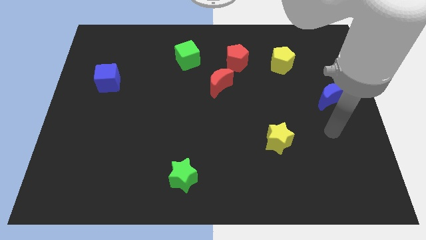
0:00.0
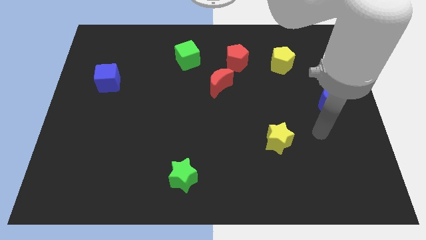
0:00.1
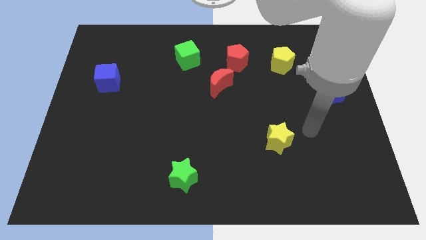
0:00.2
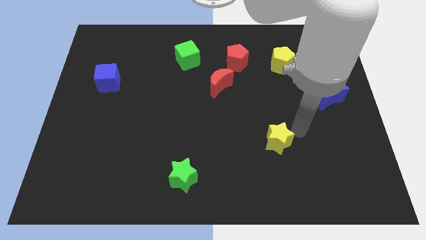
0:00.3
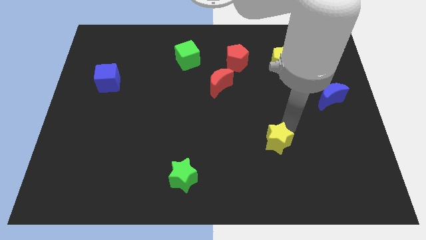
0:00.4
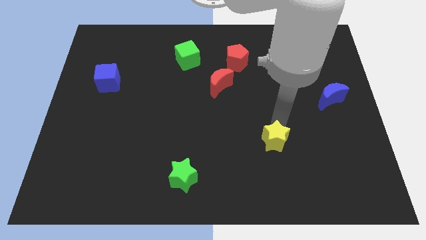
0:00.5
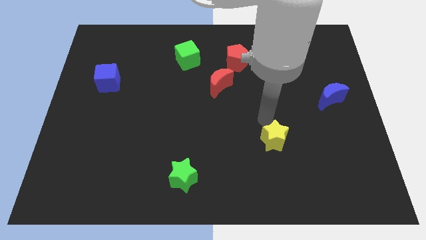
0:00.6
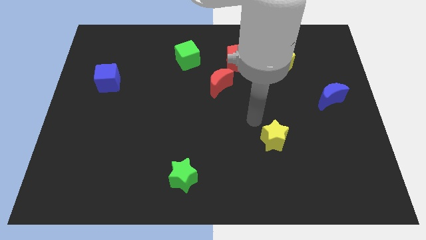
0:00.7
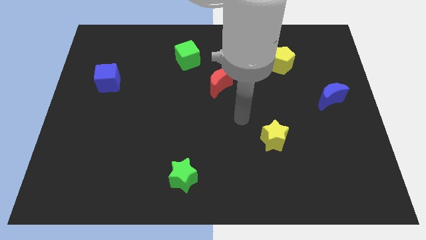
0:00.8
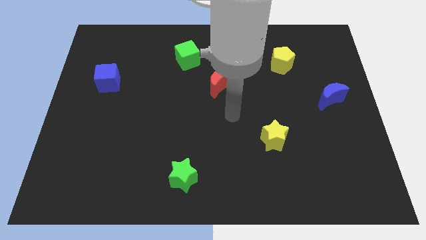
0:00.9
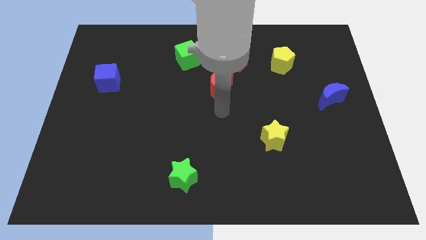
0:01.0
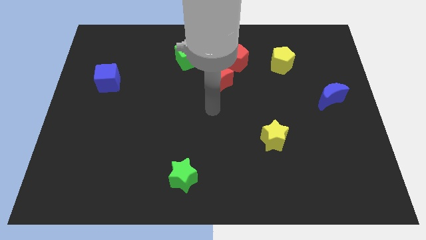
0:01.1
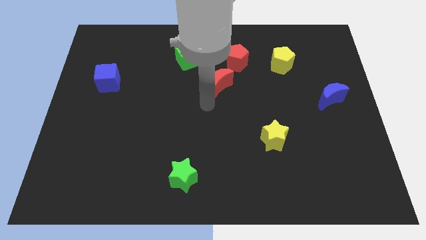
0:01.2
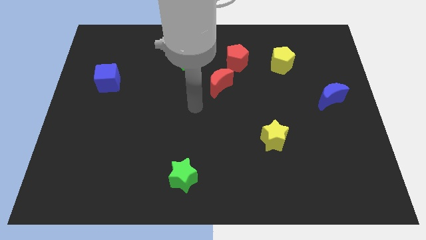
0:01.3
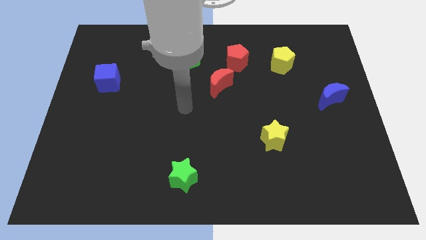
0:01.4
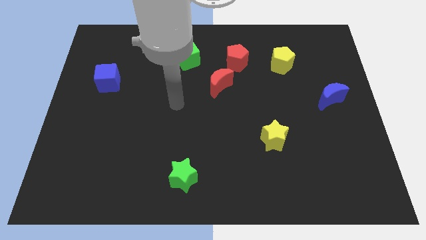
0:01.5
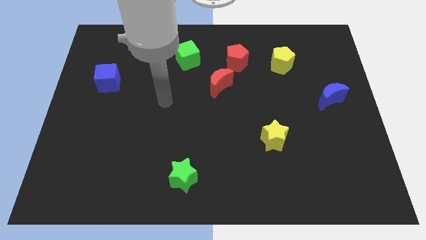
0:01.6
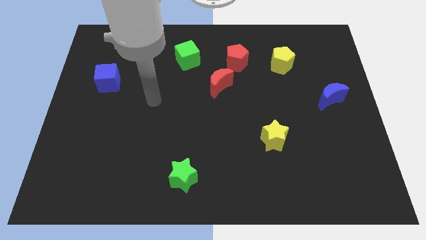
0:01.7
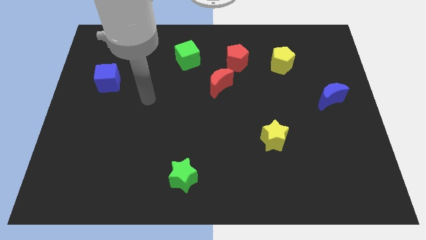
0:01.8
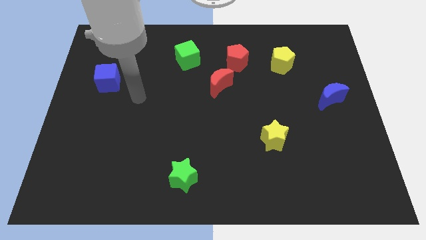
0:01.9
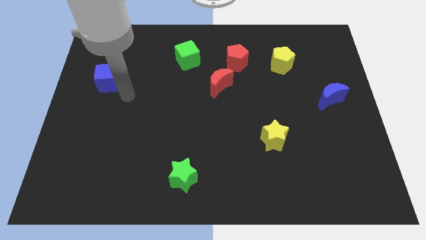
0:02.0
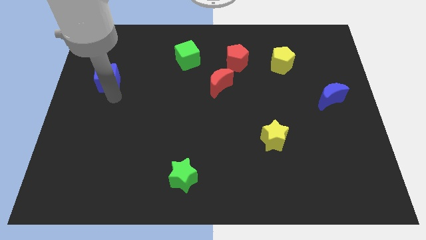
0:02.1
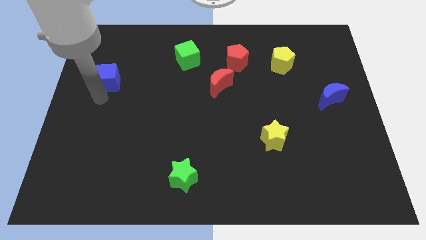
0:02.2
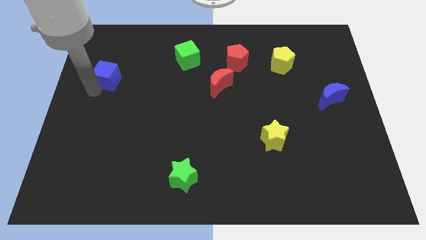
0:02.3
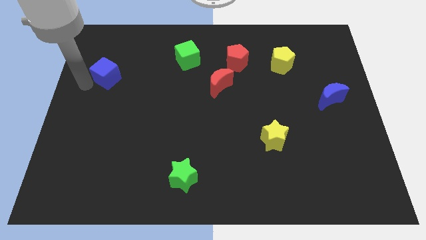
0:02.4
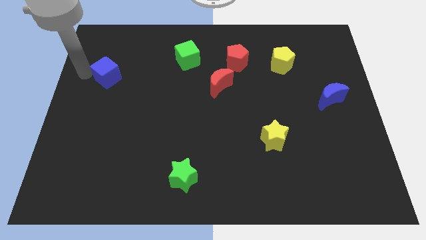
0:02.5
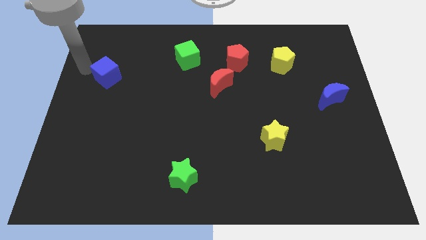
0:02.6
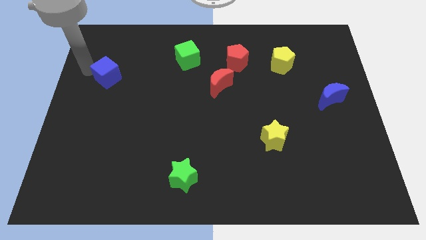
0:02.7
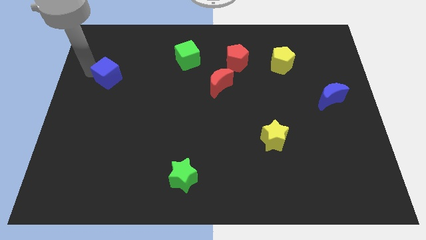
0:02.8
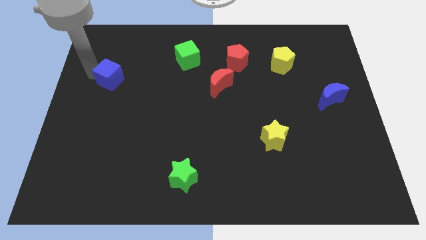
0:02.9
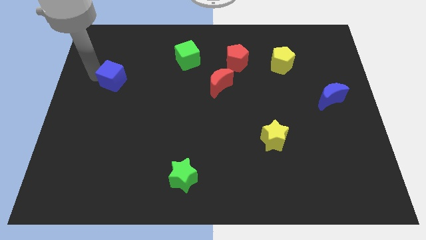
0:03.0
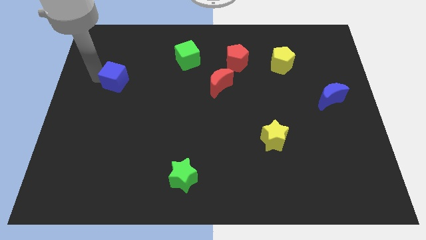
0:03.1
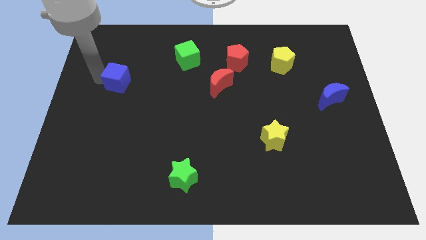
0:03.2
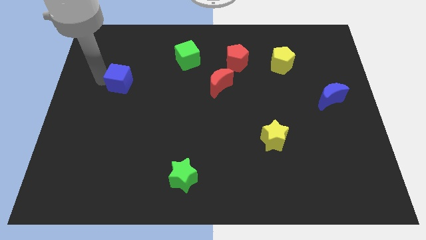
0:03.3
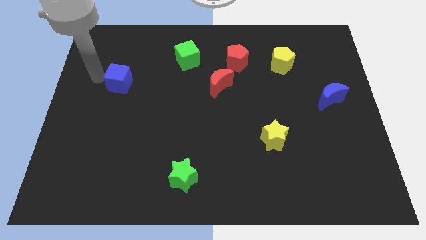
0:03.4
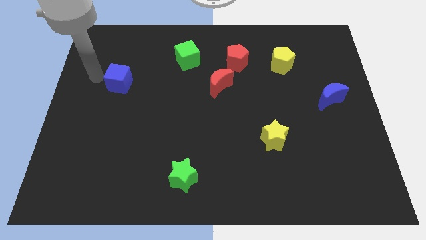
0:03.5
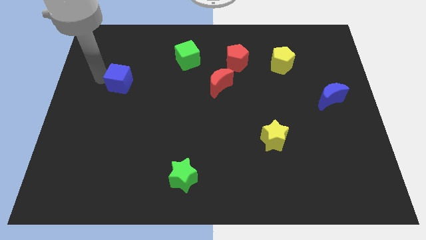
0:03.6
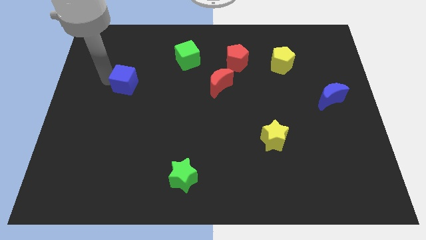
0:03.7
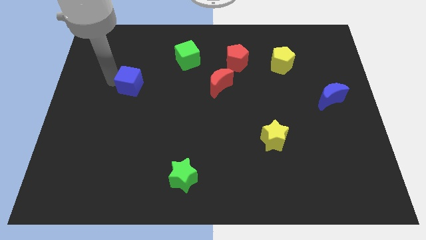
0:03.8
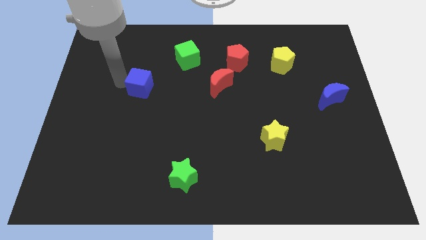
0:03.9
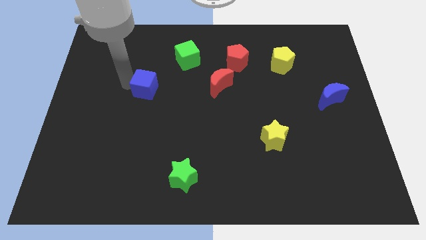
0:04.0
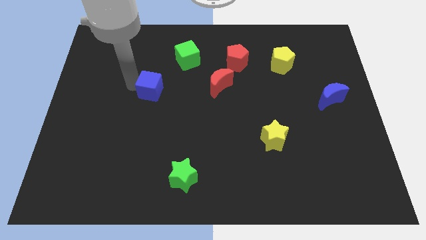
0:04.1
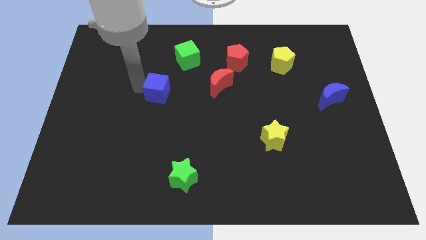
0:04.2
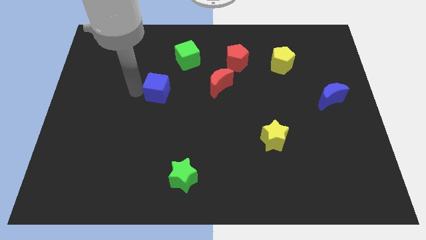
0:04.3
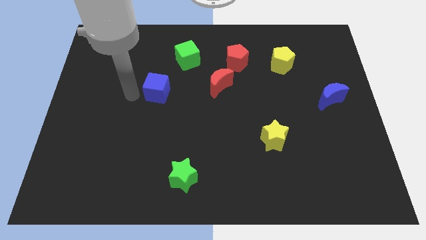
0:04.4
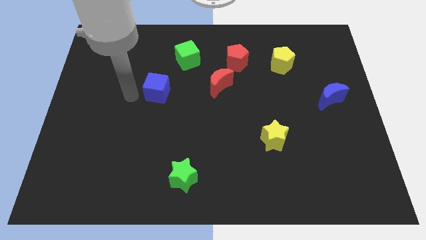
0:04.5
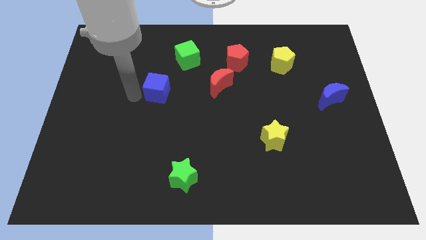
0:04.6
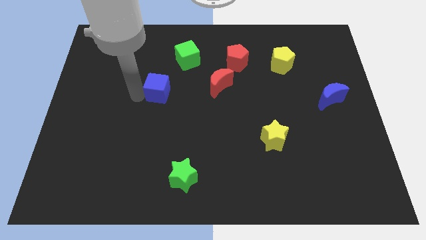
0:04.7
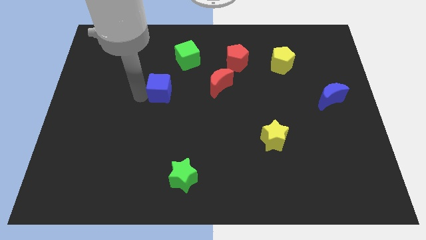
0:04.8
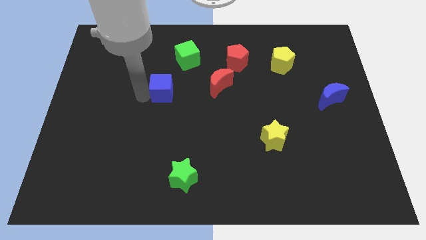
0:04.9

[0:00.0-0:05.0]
slide the blue cube to the middle of the board
